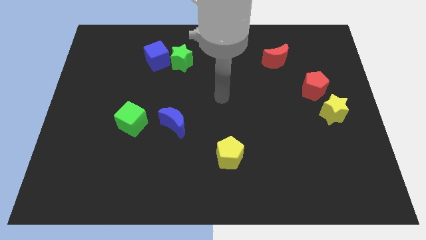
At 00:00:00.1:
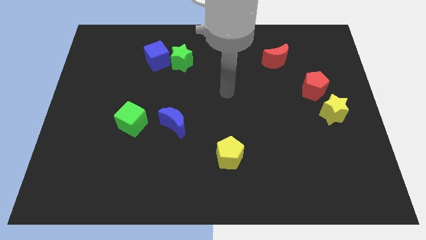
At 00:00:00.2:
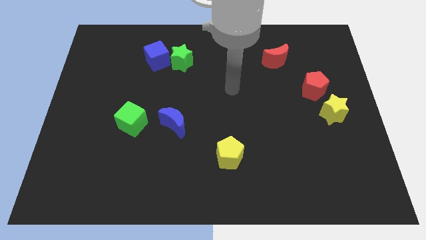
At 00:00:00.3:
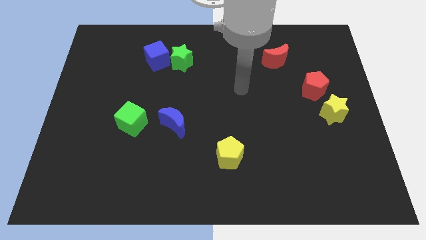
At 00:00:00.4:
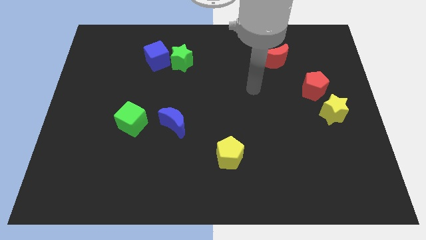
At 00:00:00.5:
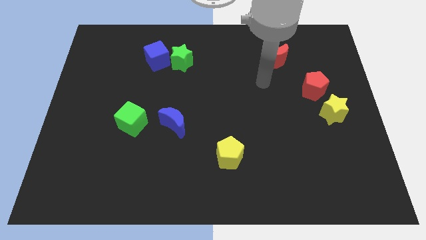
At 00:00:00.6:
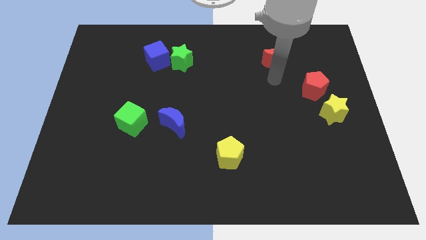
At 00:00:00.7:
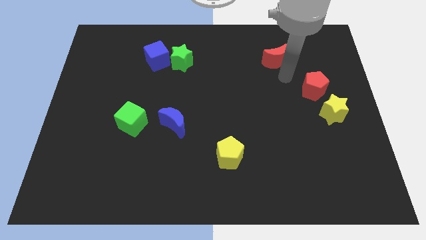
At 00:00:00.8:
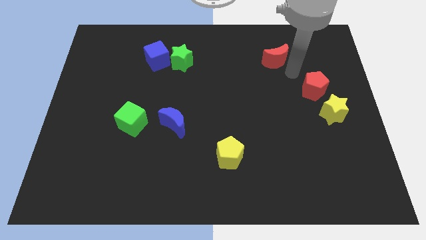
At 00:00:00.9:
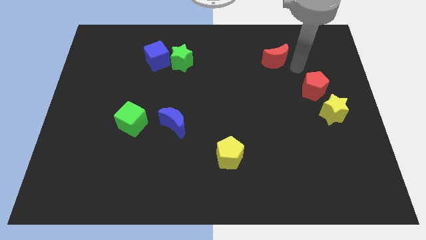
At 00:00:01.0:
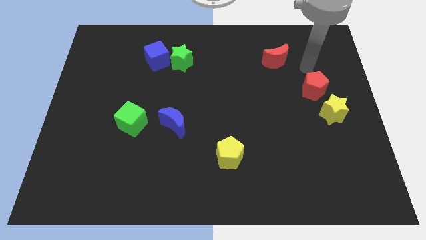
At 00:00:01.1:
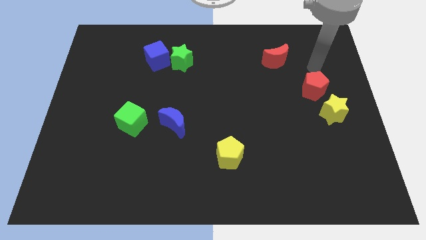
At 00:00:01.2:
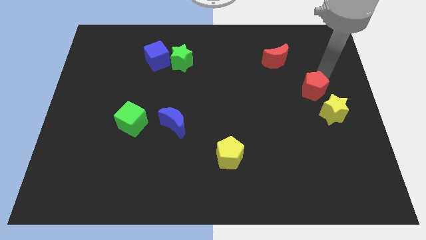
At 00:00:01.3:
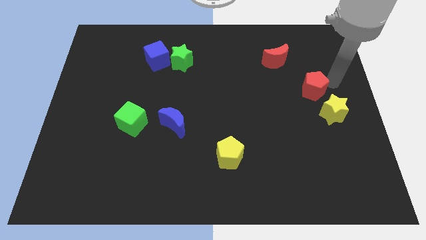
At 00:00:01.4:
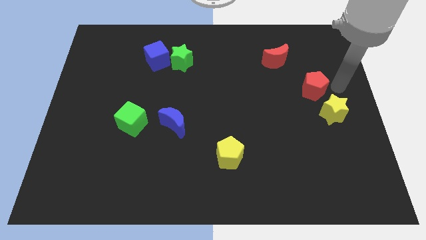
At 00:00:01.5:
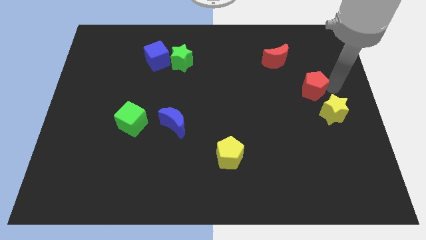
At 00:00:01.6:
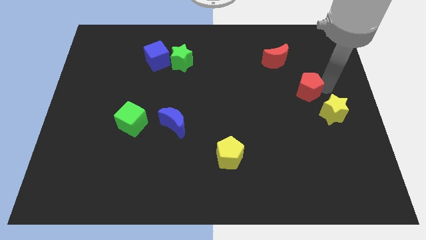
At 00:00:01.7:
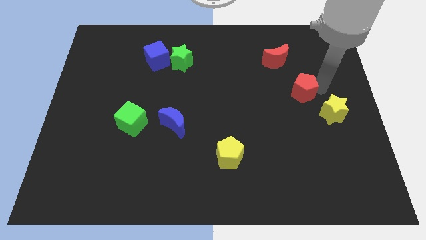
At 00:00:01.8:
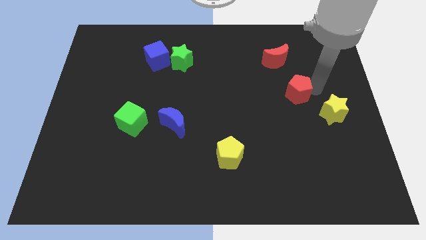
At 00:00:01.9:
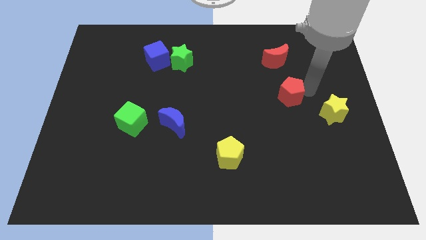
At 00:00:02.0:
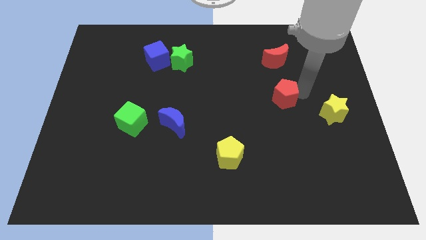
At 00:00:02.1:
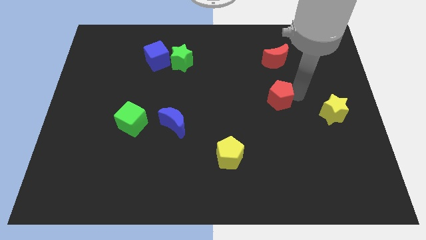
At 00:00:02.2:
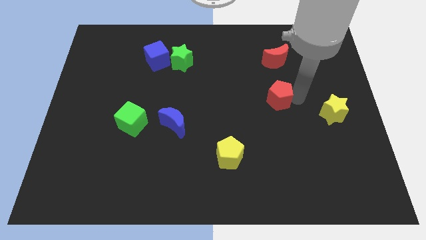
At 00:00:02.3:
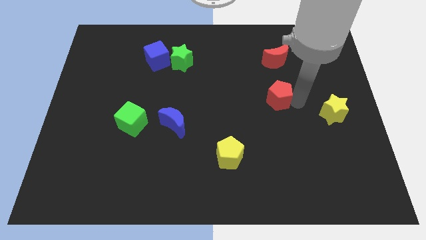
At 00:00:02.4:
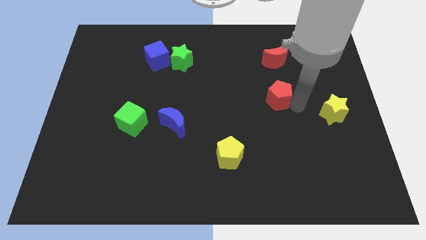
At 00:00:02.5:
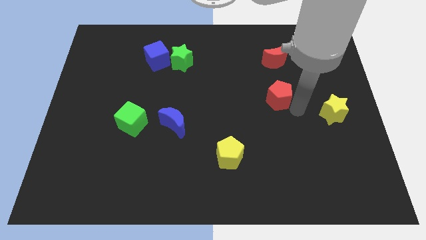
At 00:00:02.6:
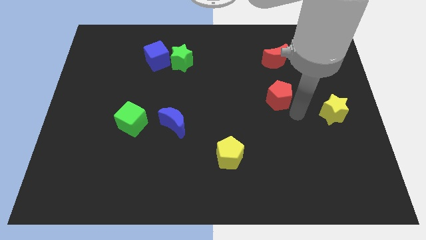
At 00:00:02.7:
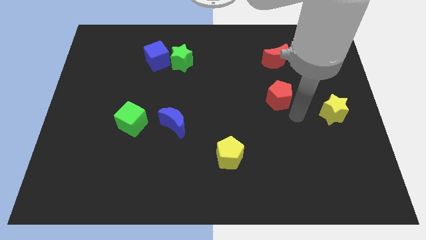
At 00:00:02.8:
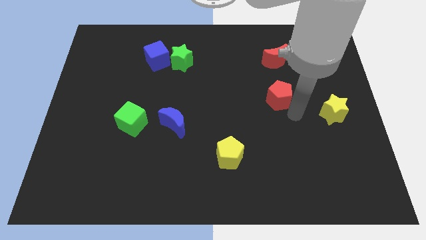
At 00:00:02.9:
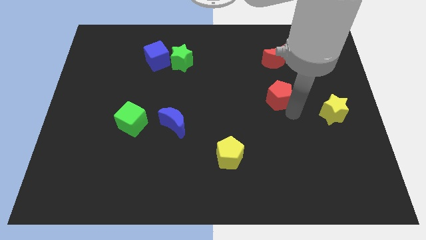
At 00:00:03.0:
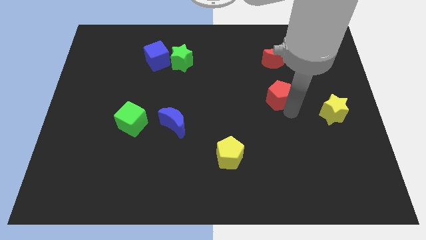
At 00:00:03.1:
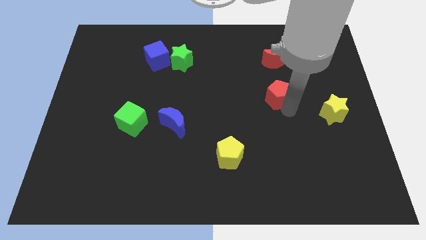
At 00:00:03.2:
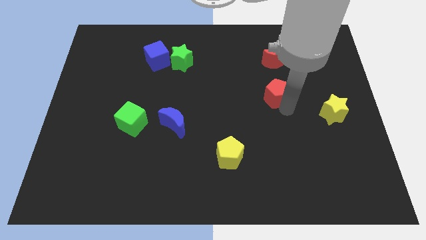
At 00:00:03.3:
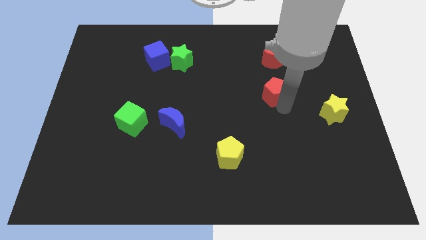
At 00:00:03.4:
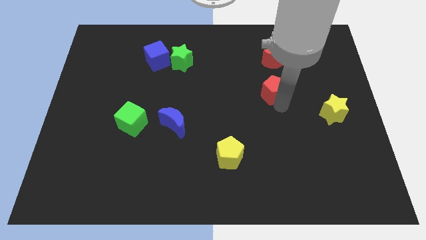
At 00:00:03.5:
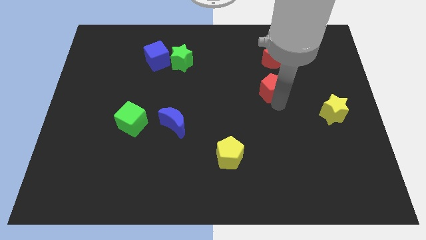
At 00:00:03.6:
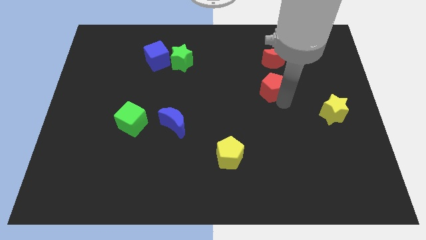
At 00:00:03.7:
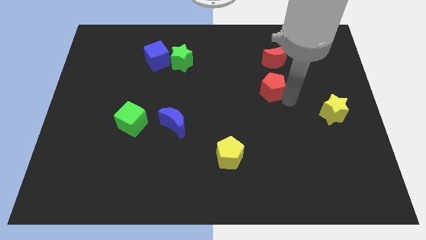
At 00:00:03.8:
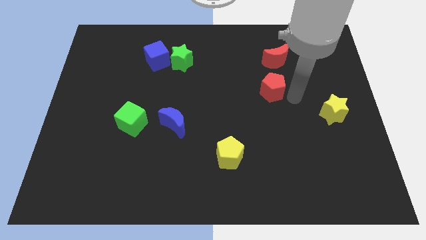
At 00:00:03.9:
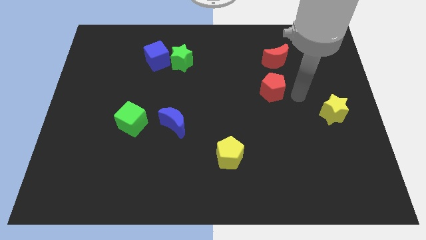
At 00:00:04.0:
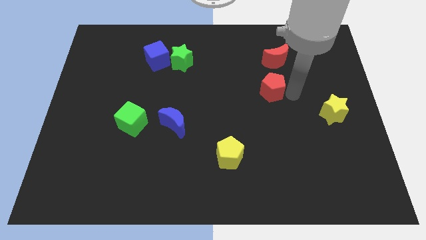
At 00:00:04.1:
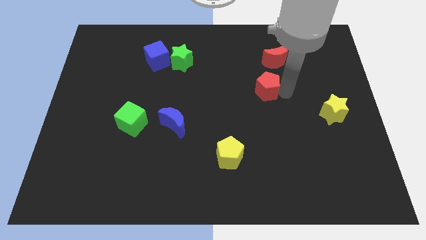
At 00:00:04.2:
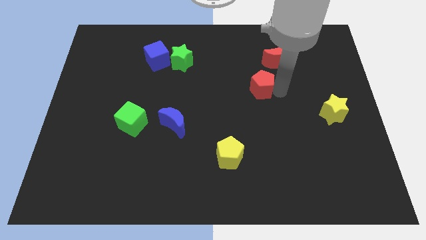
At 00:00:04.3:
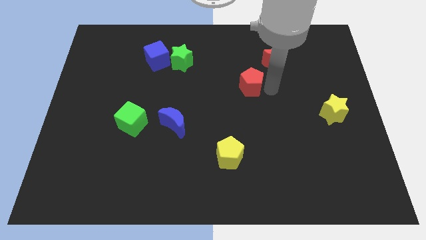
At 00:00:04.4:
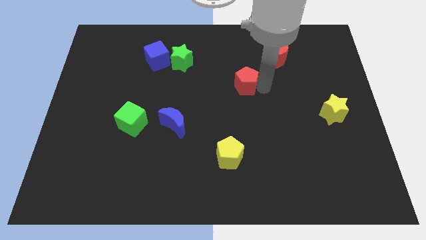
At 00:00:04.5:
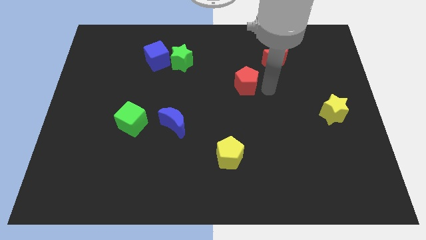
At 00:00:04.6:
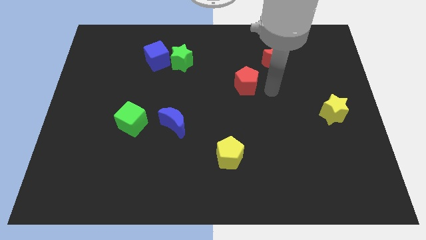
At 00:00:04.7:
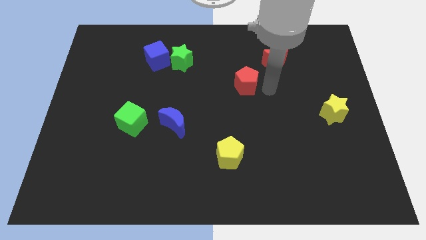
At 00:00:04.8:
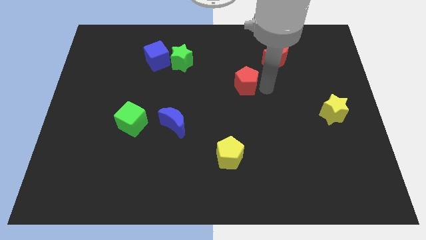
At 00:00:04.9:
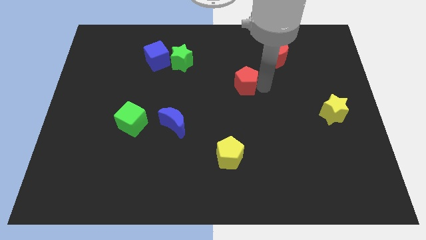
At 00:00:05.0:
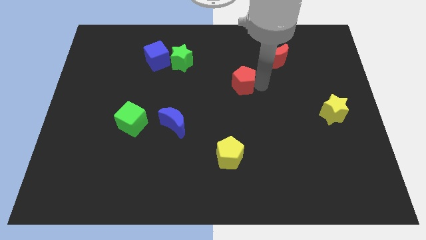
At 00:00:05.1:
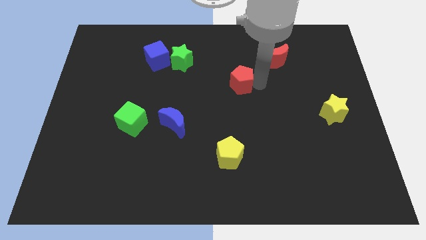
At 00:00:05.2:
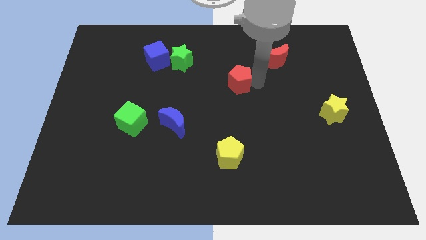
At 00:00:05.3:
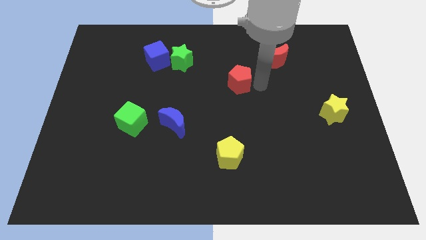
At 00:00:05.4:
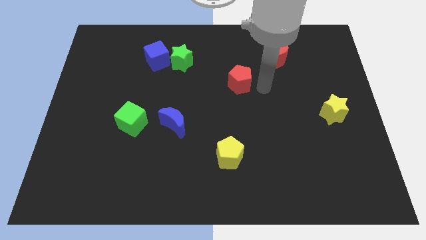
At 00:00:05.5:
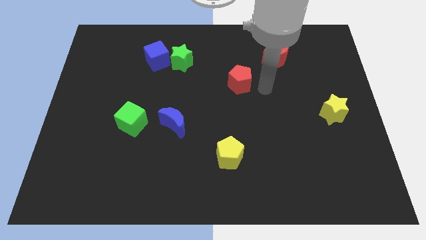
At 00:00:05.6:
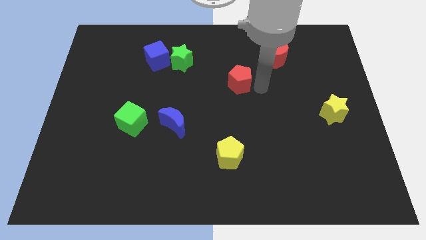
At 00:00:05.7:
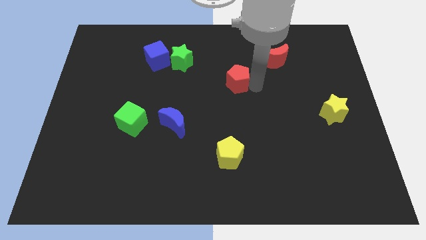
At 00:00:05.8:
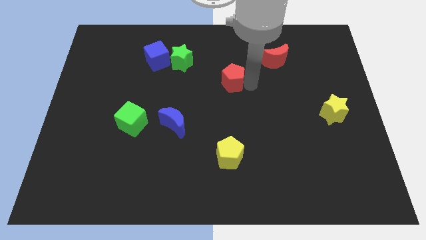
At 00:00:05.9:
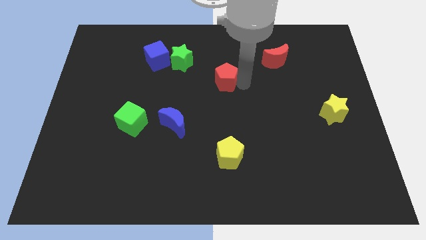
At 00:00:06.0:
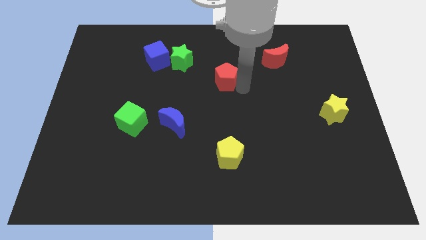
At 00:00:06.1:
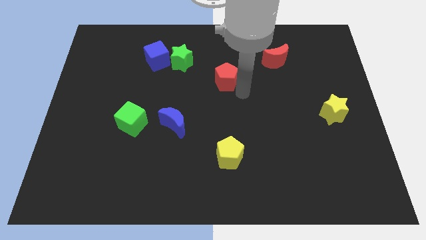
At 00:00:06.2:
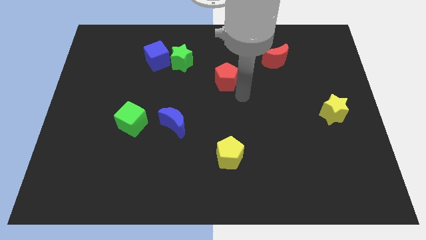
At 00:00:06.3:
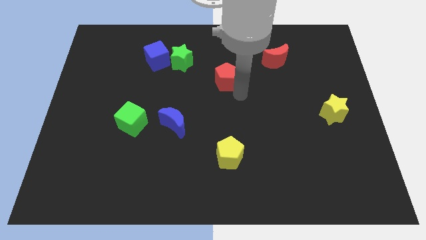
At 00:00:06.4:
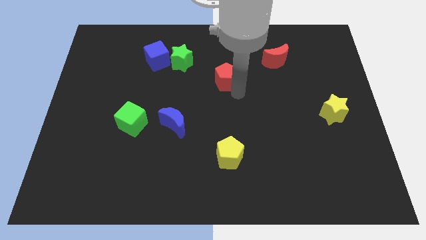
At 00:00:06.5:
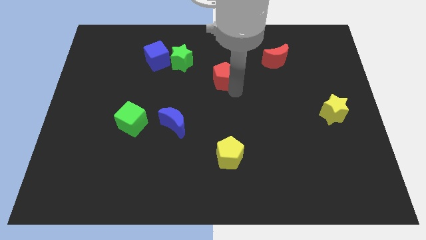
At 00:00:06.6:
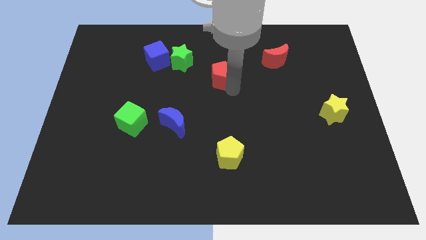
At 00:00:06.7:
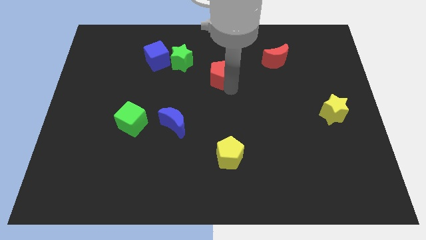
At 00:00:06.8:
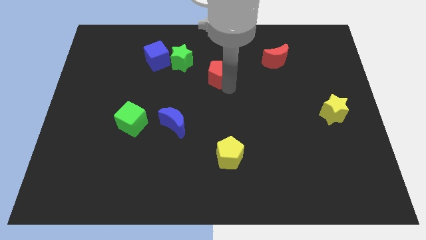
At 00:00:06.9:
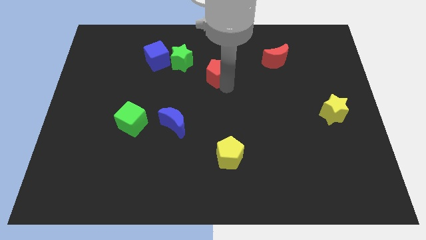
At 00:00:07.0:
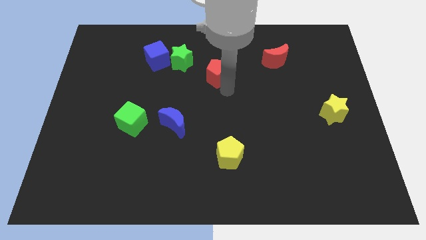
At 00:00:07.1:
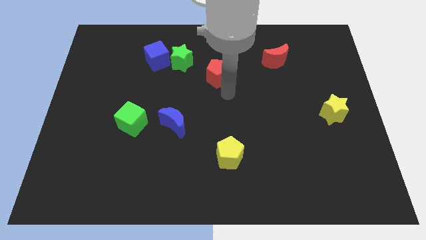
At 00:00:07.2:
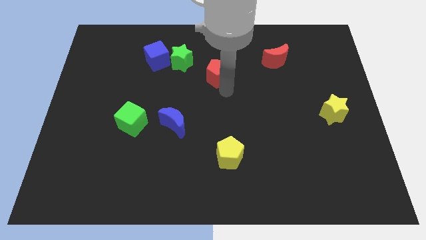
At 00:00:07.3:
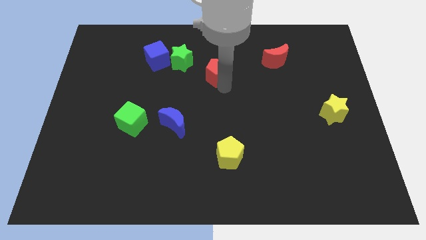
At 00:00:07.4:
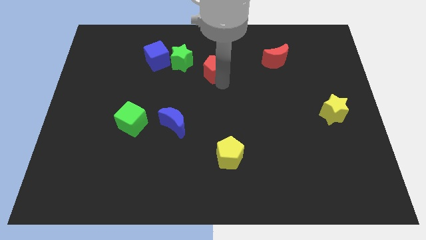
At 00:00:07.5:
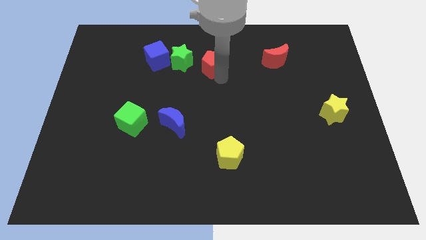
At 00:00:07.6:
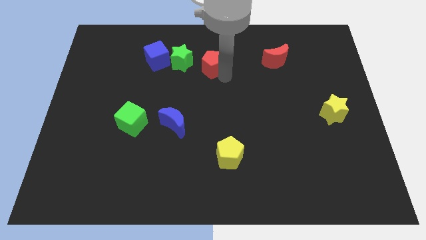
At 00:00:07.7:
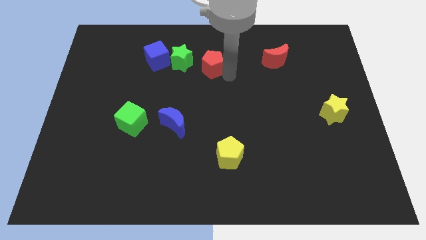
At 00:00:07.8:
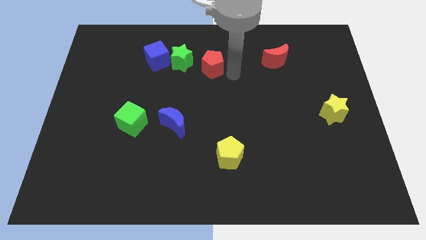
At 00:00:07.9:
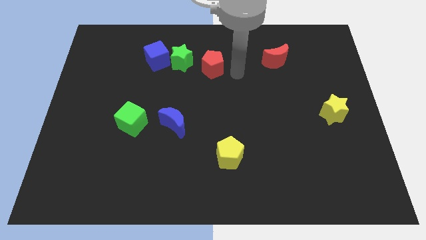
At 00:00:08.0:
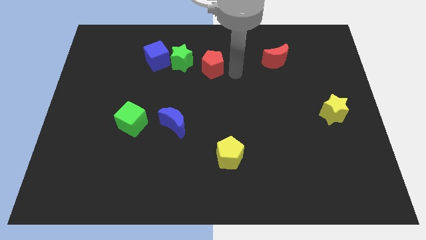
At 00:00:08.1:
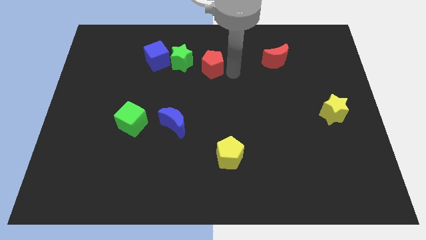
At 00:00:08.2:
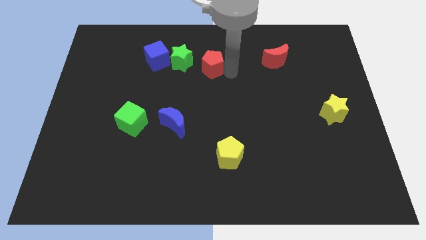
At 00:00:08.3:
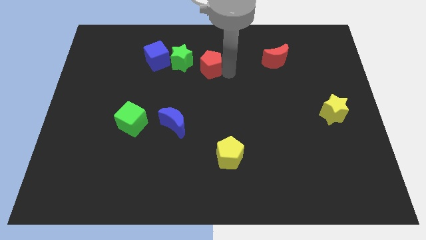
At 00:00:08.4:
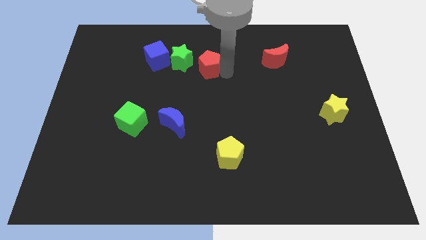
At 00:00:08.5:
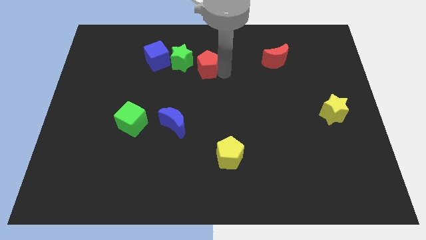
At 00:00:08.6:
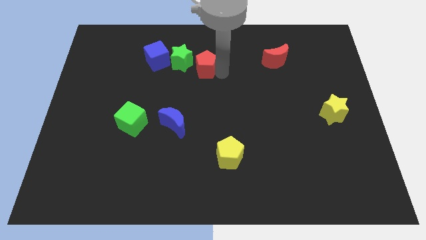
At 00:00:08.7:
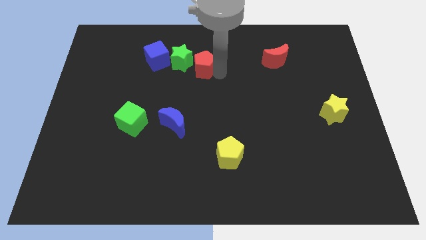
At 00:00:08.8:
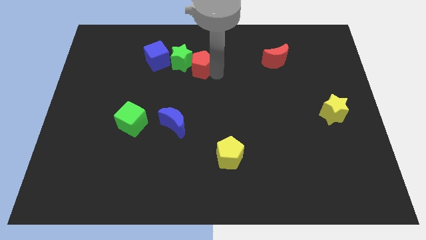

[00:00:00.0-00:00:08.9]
slide the red pentagon next to the green star
